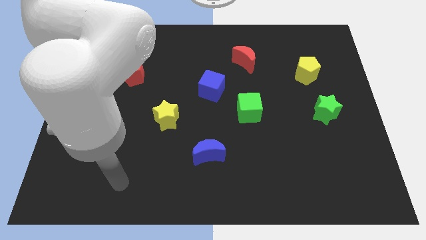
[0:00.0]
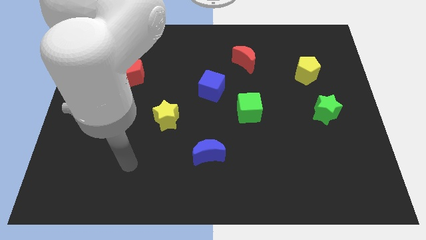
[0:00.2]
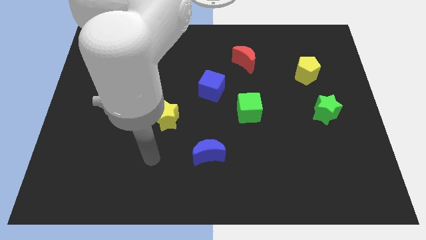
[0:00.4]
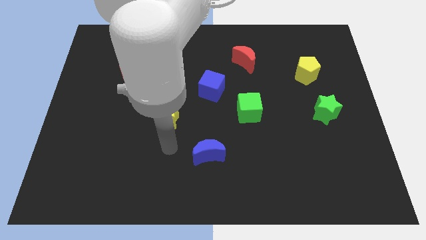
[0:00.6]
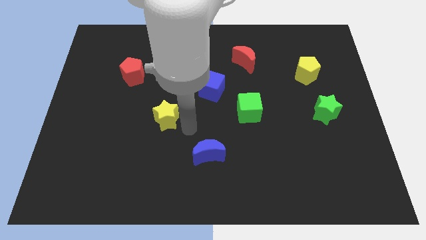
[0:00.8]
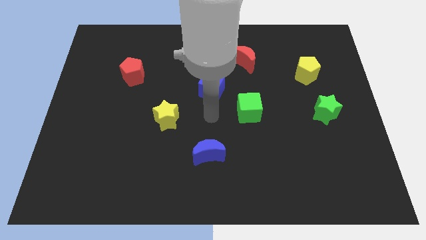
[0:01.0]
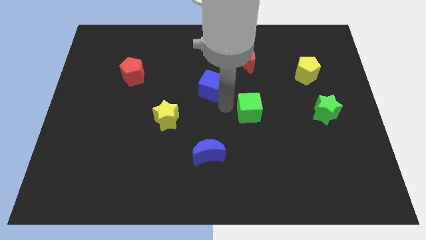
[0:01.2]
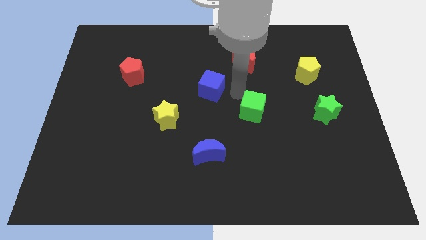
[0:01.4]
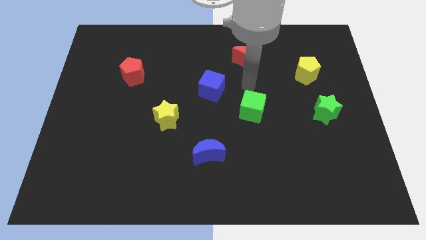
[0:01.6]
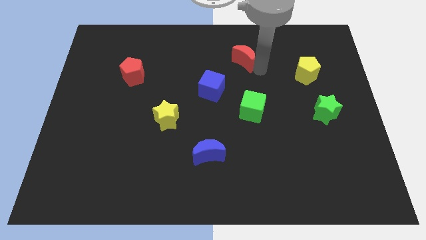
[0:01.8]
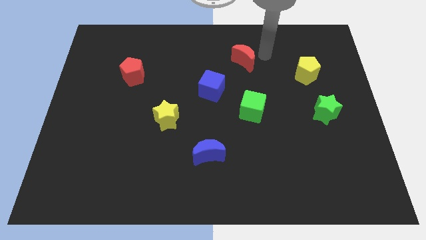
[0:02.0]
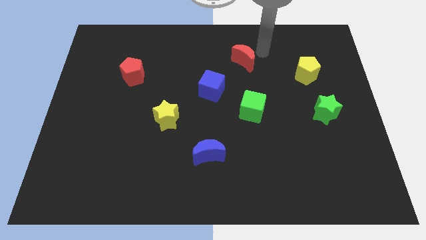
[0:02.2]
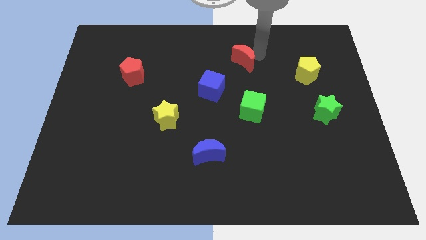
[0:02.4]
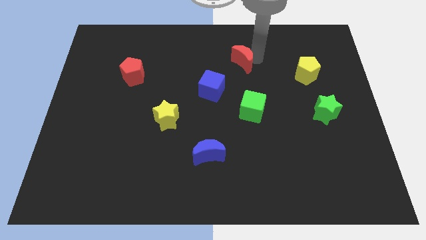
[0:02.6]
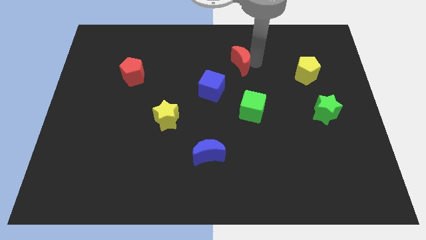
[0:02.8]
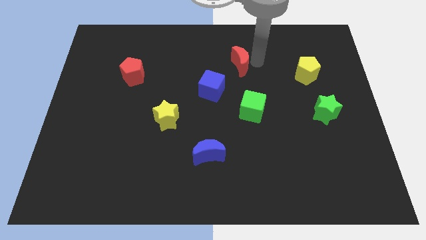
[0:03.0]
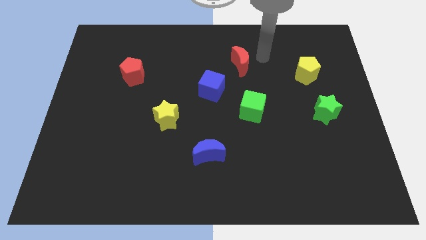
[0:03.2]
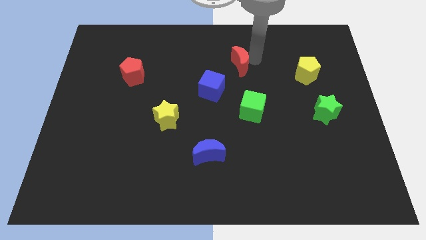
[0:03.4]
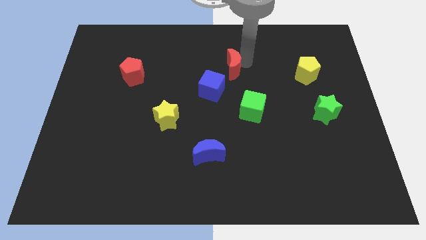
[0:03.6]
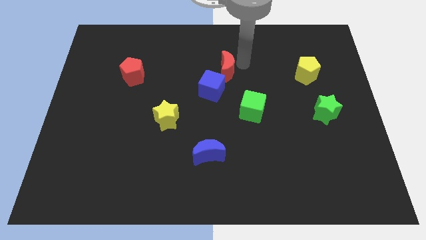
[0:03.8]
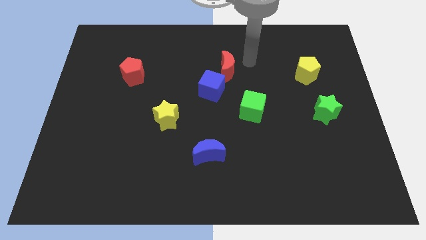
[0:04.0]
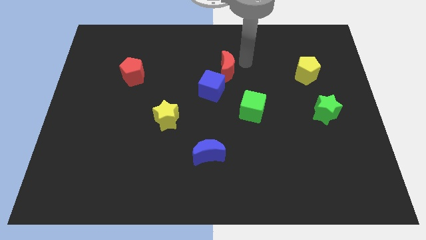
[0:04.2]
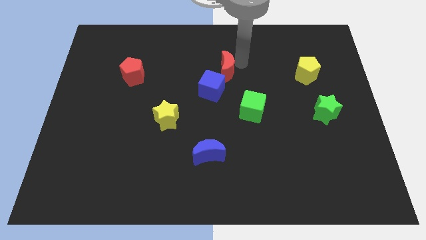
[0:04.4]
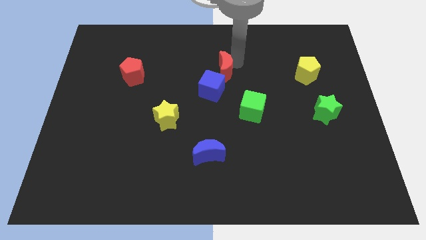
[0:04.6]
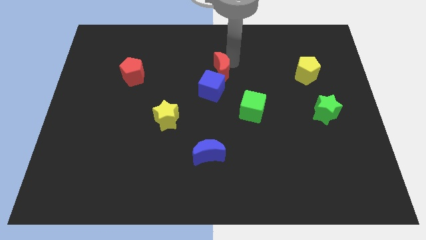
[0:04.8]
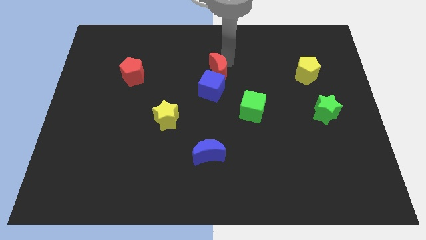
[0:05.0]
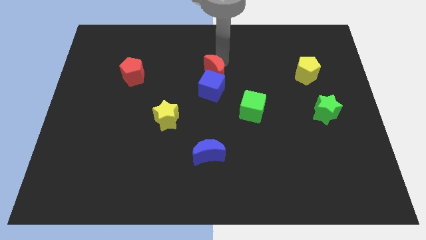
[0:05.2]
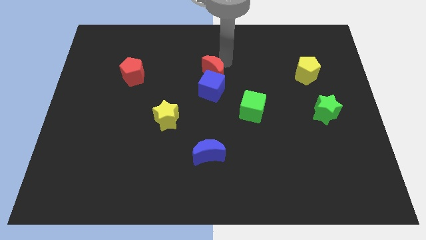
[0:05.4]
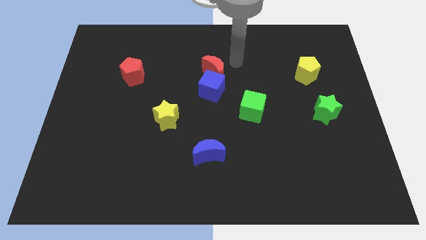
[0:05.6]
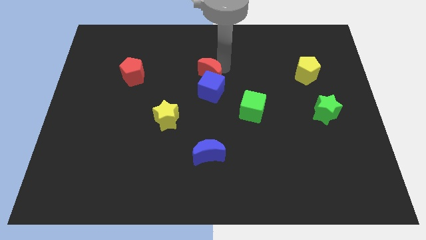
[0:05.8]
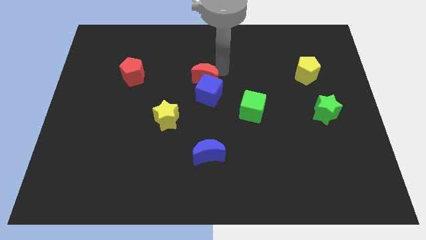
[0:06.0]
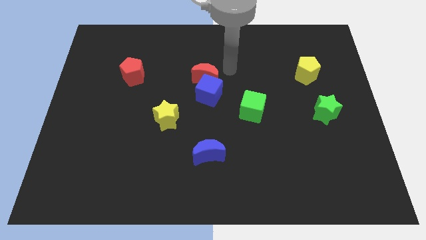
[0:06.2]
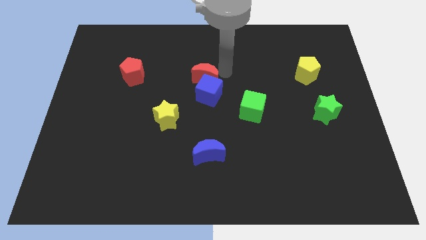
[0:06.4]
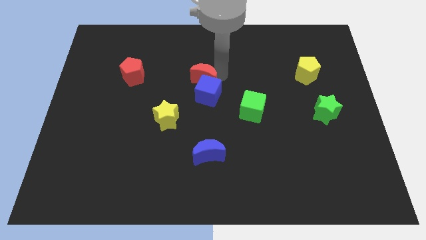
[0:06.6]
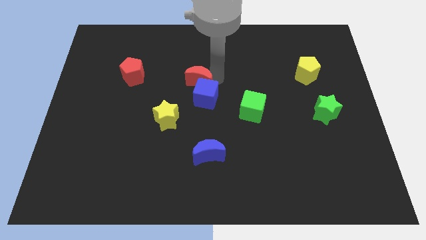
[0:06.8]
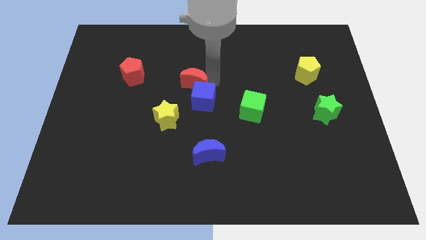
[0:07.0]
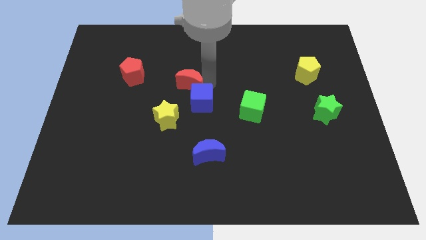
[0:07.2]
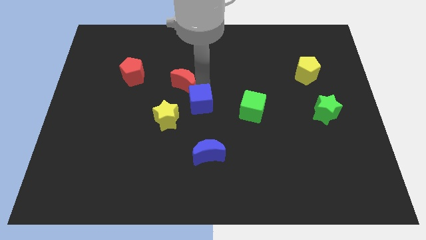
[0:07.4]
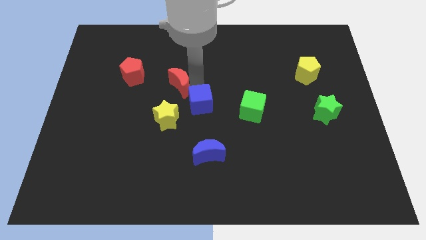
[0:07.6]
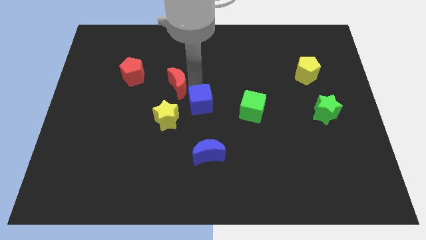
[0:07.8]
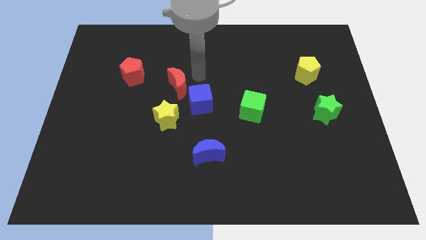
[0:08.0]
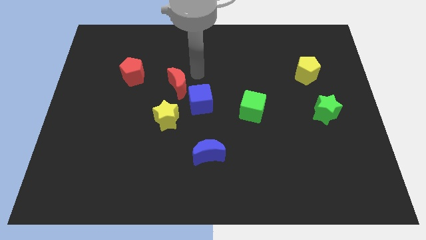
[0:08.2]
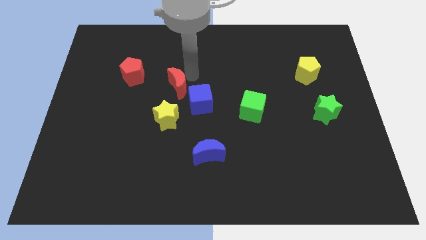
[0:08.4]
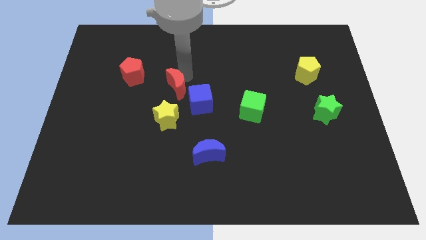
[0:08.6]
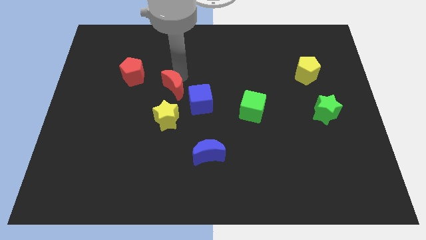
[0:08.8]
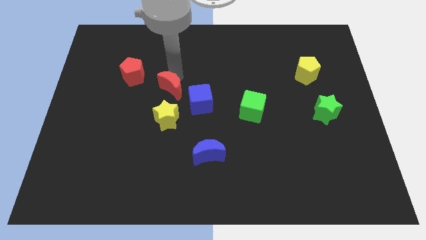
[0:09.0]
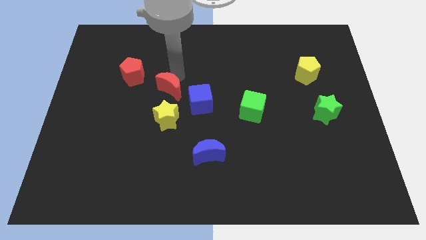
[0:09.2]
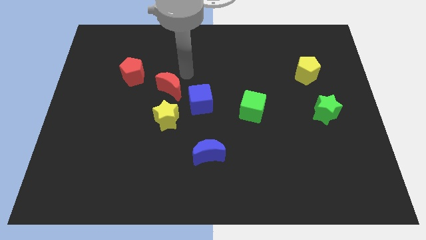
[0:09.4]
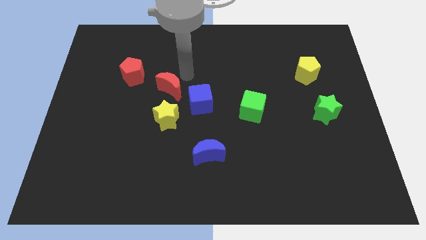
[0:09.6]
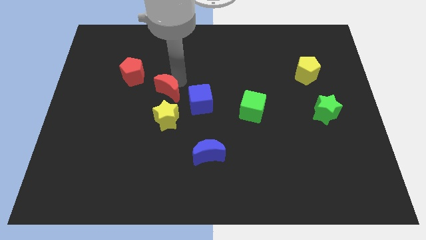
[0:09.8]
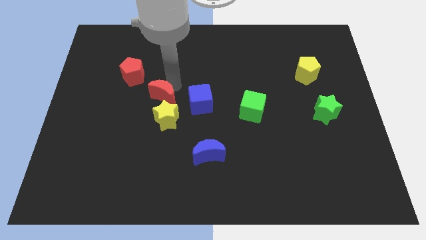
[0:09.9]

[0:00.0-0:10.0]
move the red moon down and to the left

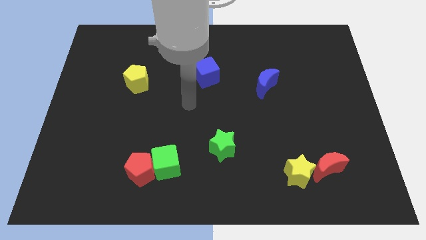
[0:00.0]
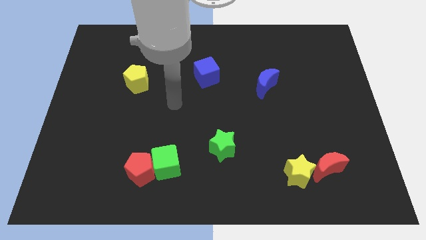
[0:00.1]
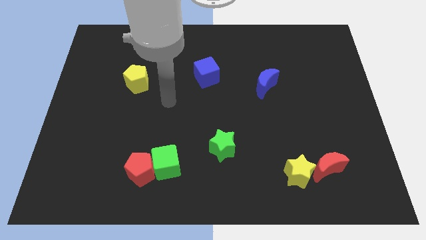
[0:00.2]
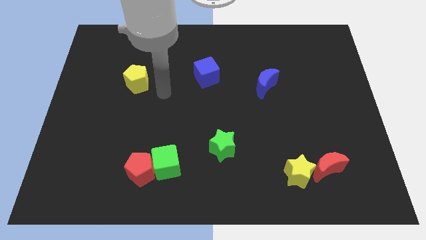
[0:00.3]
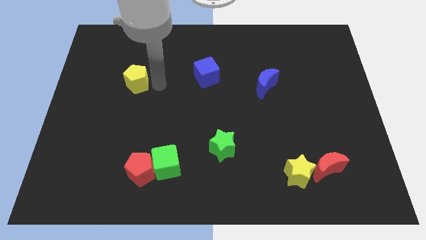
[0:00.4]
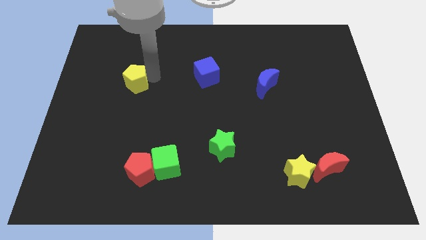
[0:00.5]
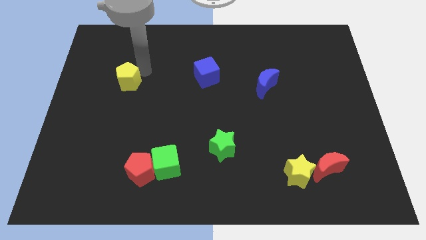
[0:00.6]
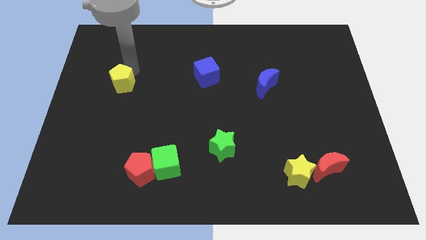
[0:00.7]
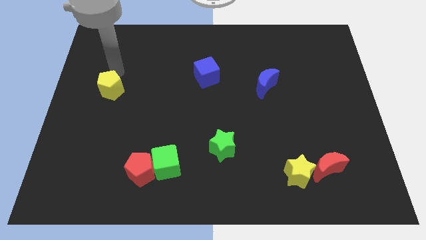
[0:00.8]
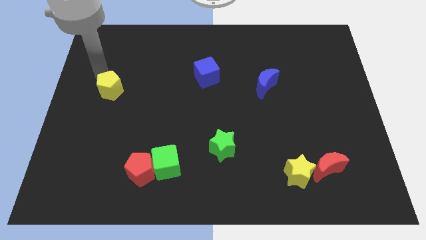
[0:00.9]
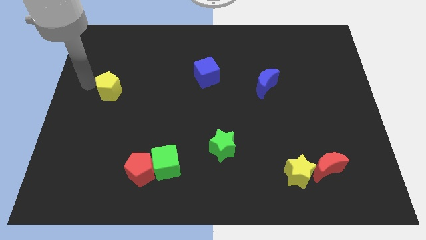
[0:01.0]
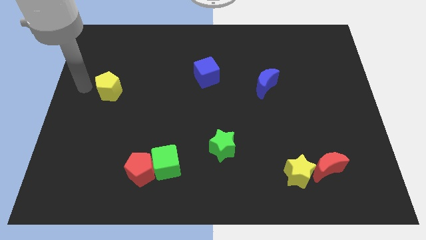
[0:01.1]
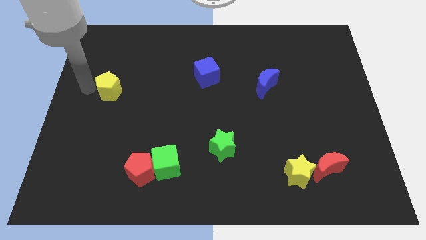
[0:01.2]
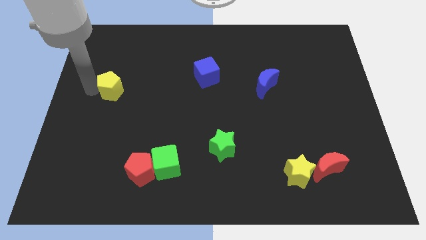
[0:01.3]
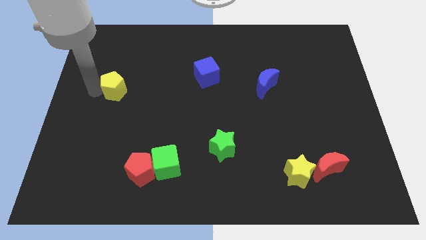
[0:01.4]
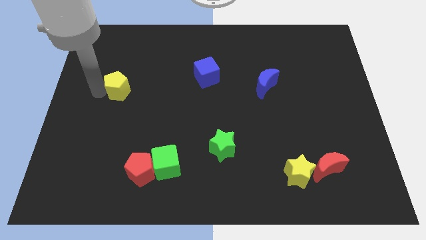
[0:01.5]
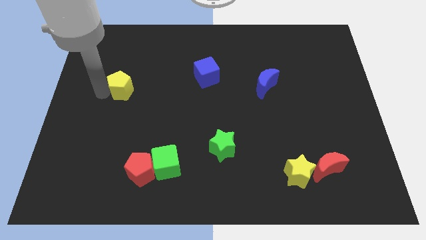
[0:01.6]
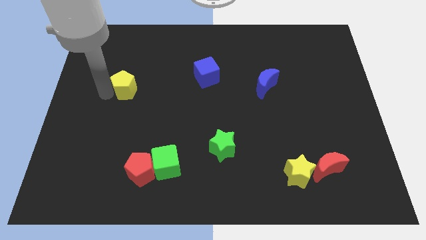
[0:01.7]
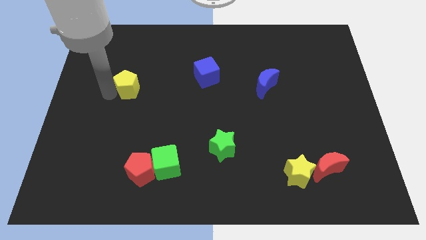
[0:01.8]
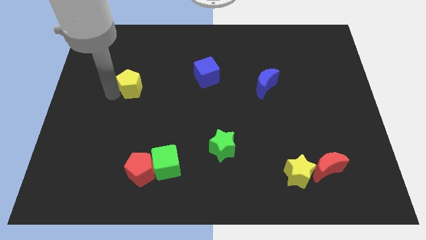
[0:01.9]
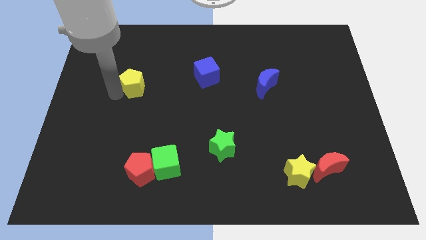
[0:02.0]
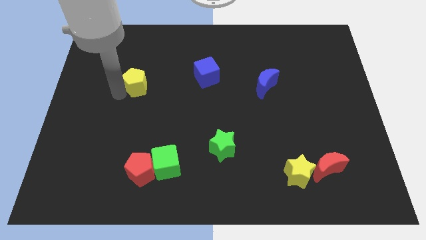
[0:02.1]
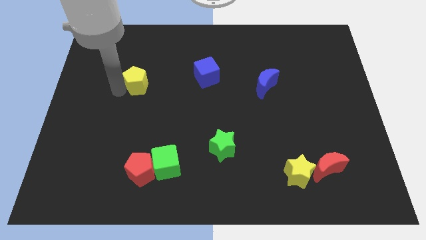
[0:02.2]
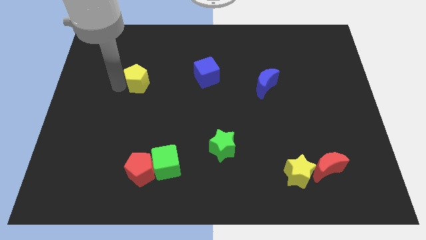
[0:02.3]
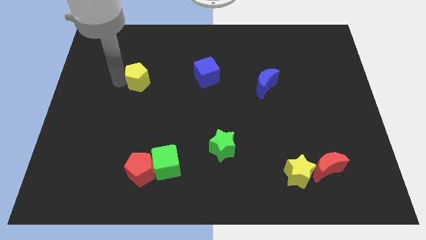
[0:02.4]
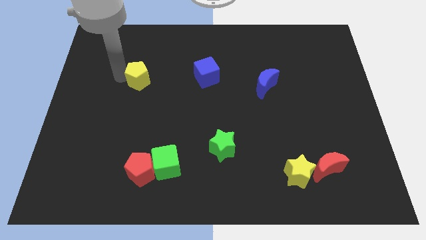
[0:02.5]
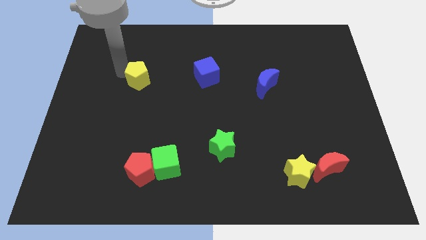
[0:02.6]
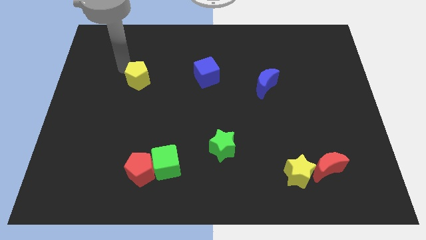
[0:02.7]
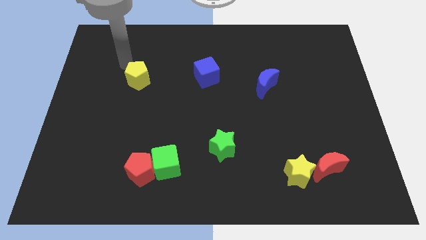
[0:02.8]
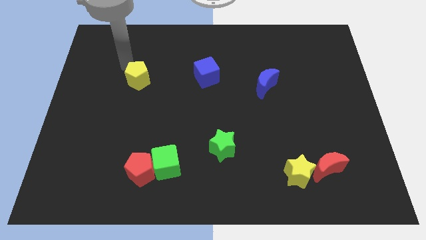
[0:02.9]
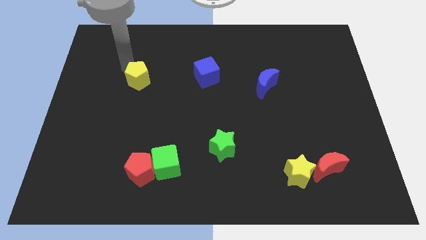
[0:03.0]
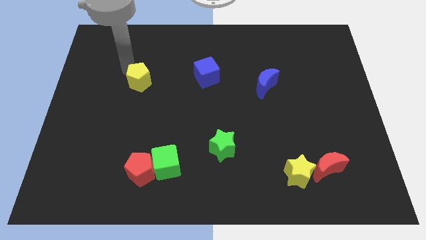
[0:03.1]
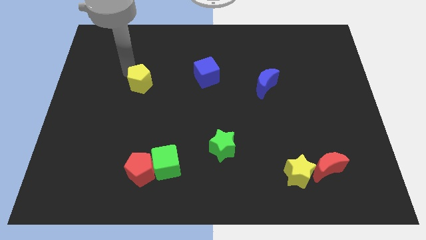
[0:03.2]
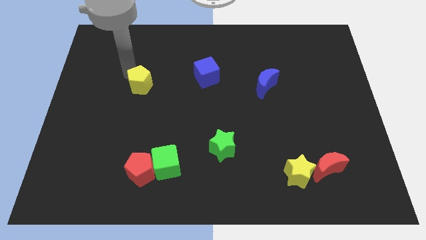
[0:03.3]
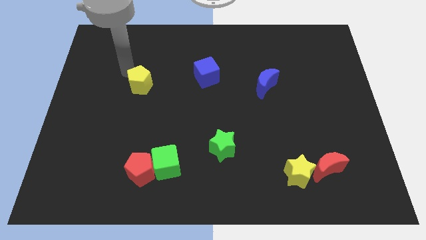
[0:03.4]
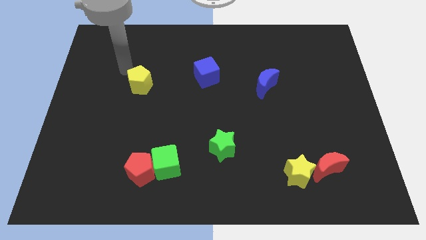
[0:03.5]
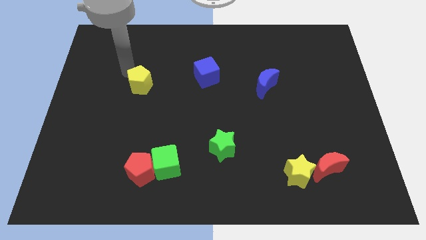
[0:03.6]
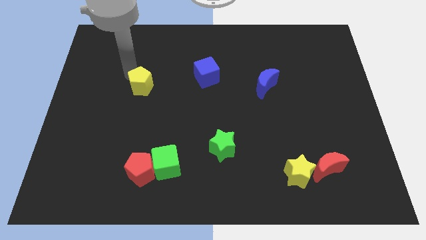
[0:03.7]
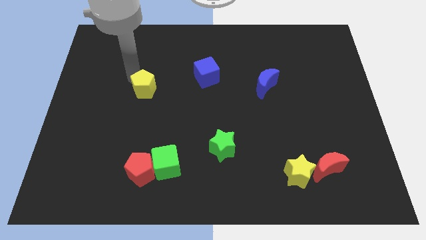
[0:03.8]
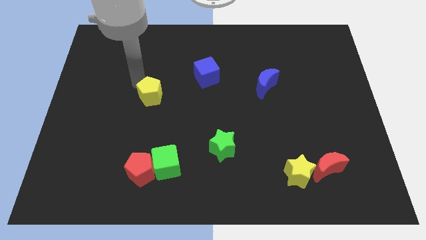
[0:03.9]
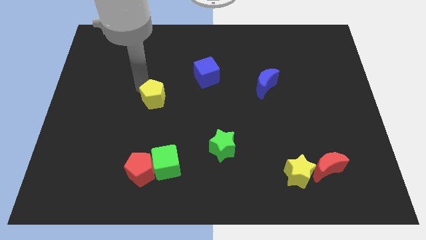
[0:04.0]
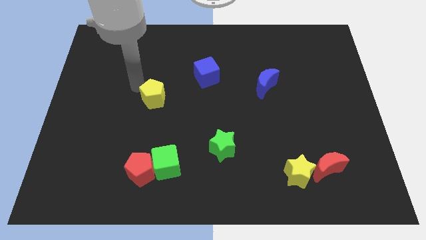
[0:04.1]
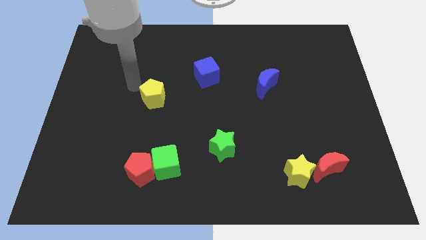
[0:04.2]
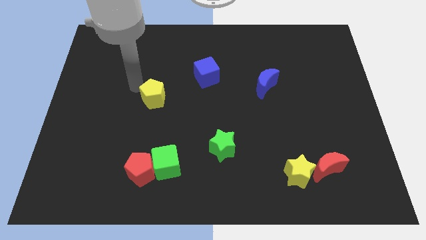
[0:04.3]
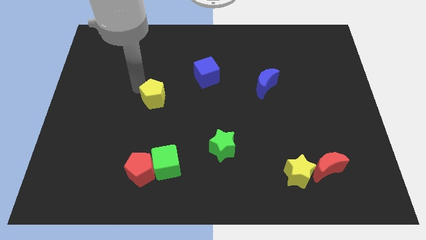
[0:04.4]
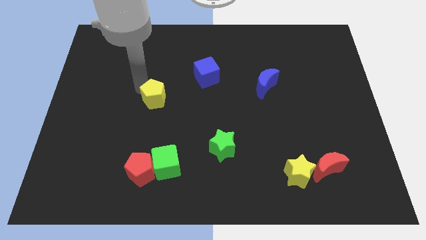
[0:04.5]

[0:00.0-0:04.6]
slightly slide the yellow pentagon downwards and right
